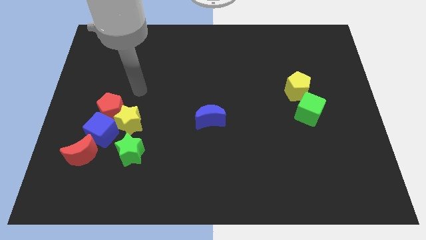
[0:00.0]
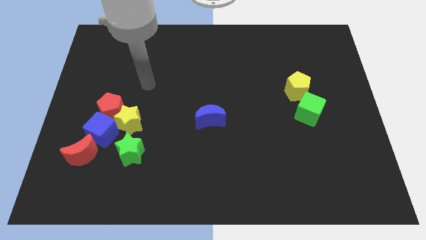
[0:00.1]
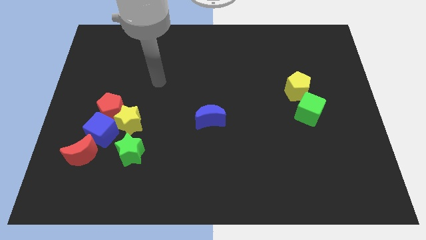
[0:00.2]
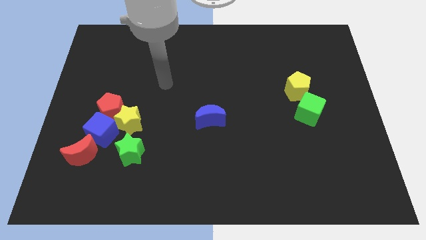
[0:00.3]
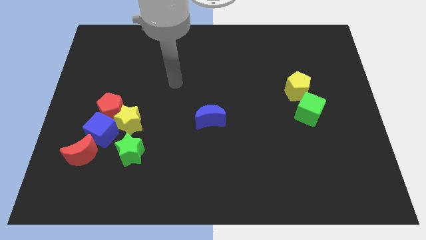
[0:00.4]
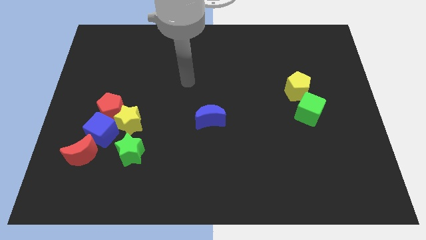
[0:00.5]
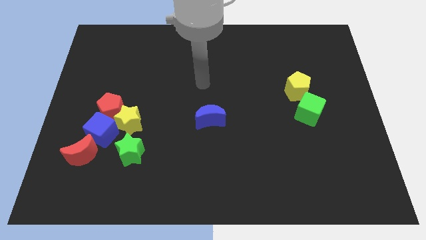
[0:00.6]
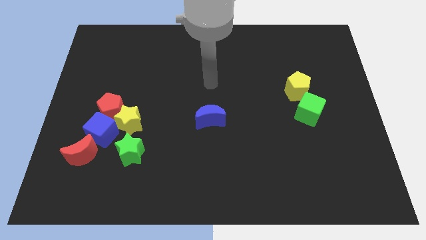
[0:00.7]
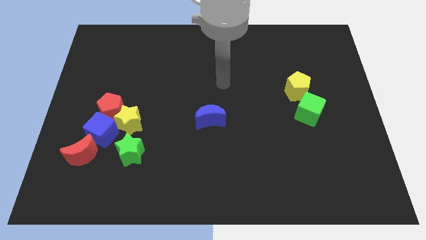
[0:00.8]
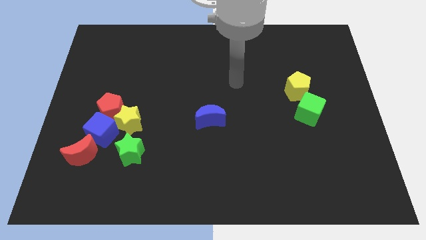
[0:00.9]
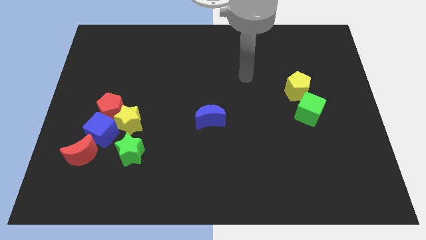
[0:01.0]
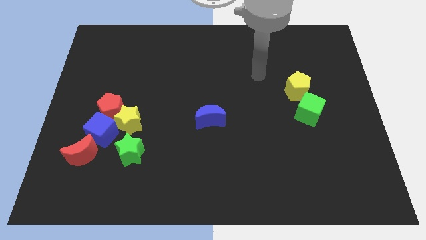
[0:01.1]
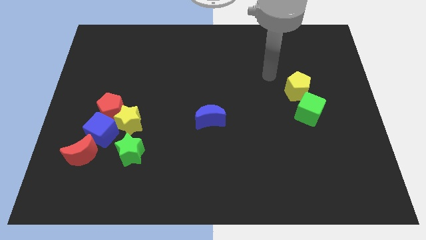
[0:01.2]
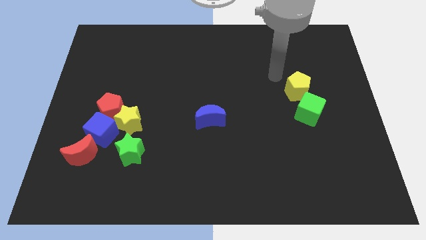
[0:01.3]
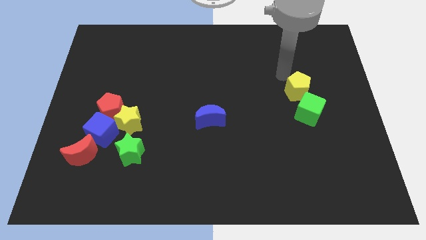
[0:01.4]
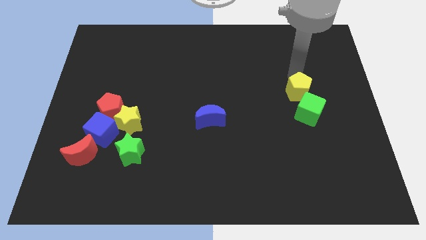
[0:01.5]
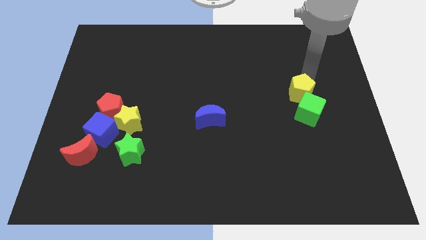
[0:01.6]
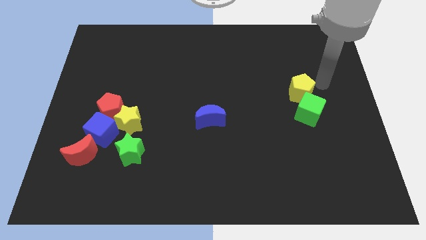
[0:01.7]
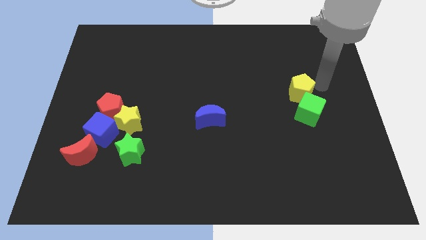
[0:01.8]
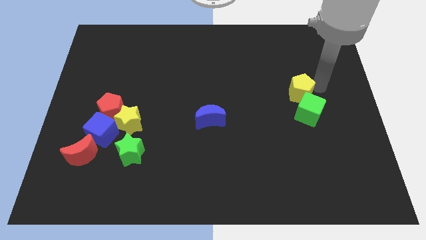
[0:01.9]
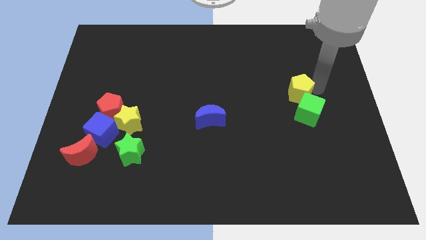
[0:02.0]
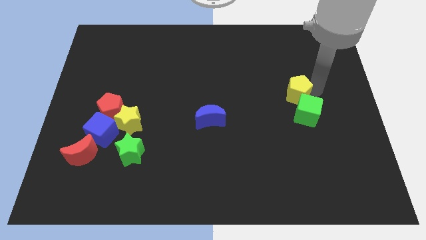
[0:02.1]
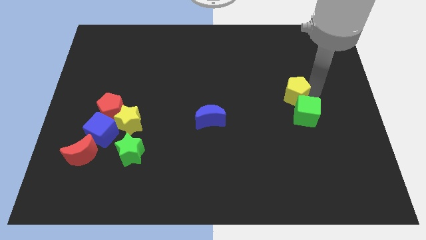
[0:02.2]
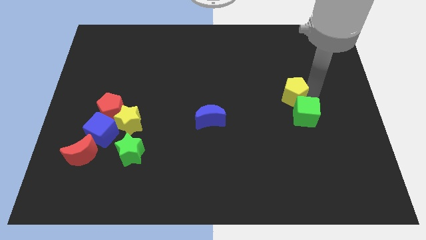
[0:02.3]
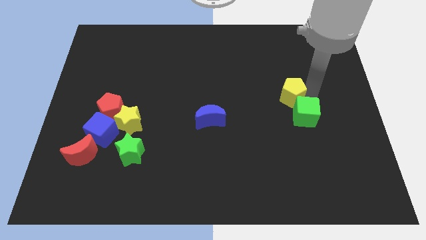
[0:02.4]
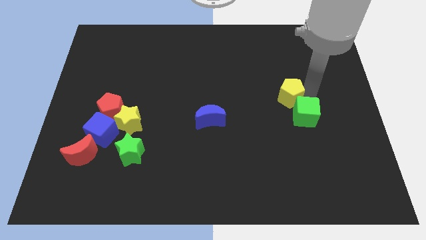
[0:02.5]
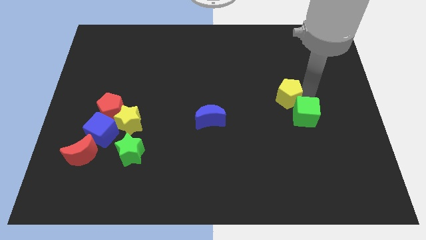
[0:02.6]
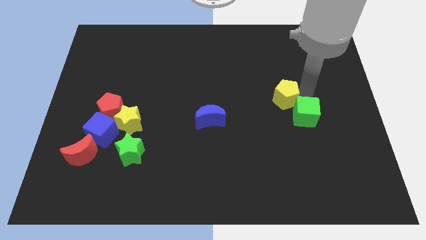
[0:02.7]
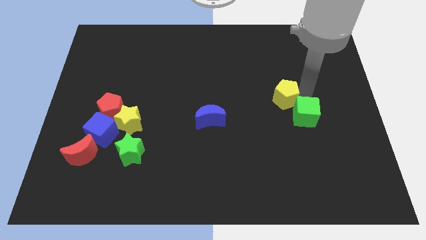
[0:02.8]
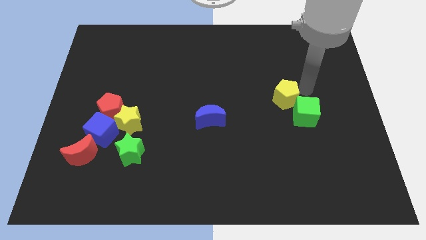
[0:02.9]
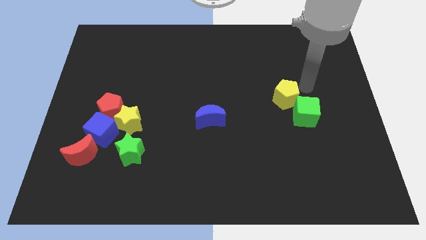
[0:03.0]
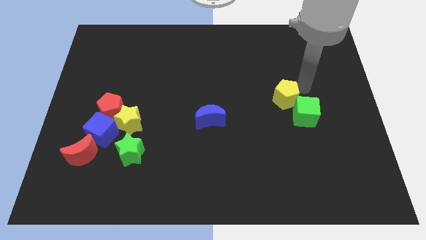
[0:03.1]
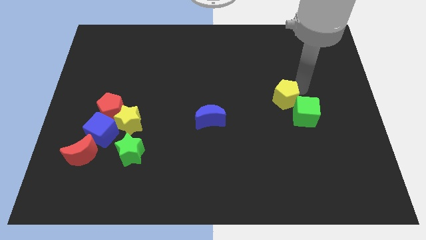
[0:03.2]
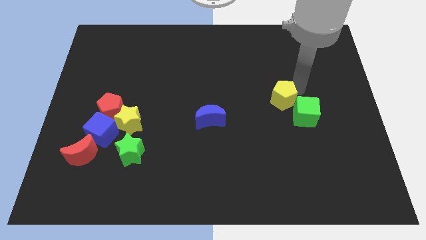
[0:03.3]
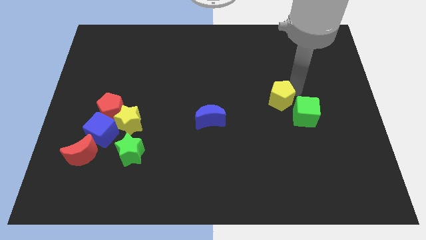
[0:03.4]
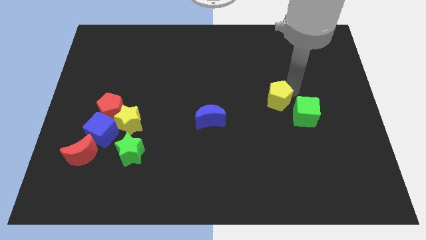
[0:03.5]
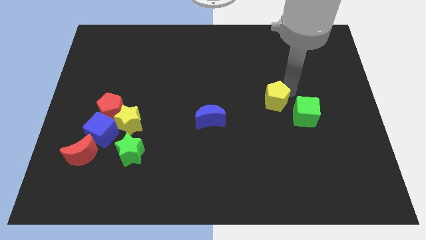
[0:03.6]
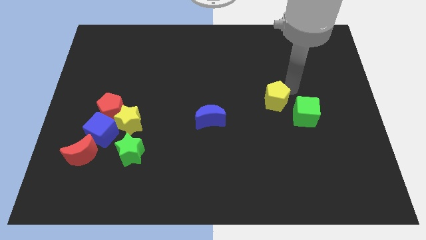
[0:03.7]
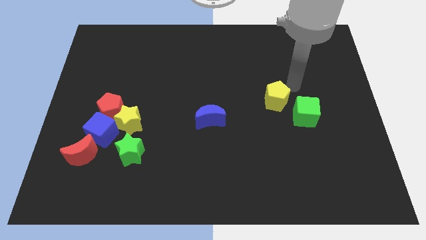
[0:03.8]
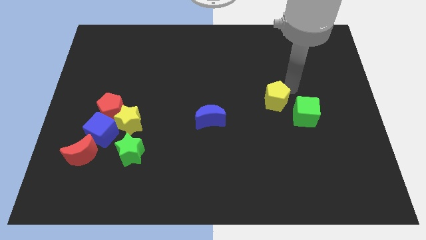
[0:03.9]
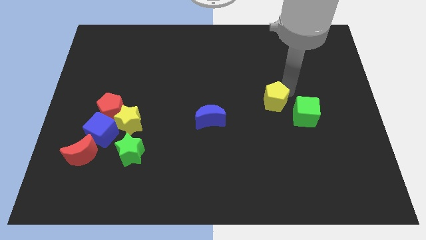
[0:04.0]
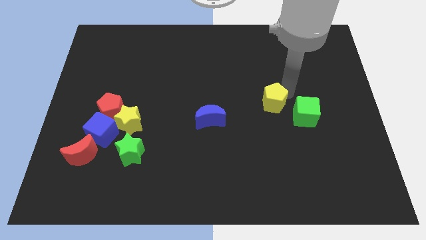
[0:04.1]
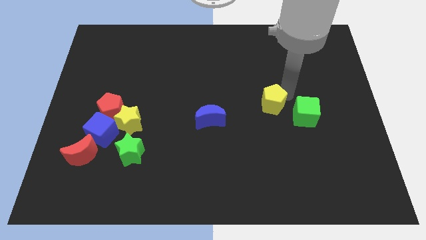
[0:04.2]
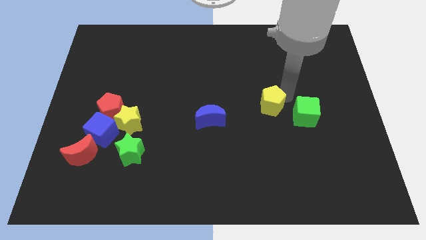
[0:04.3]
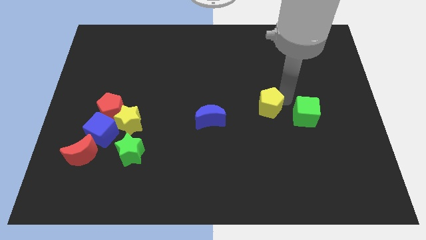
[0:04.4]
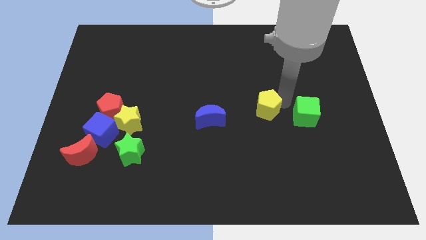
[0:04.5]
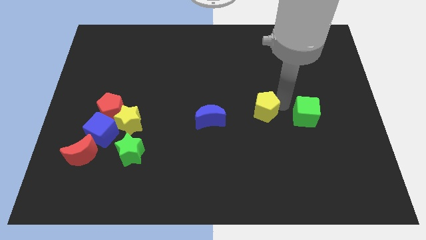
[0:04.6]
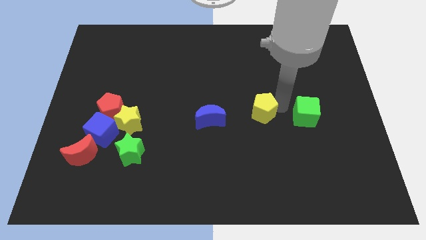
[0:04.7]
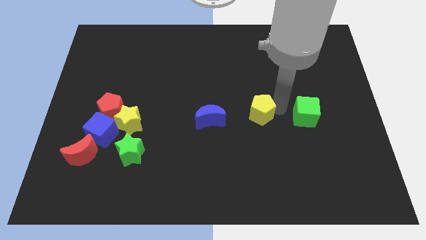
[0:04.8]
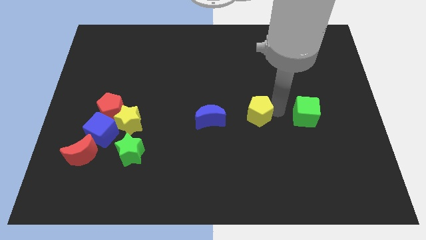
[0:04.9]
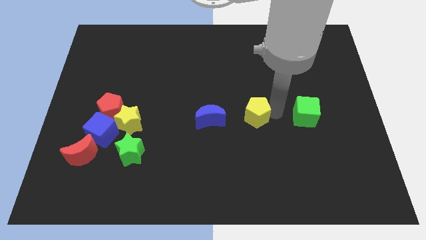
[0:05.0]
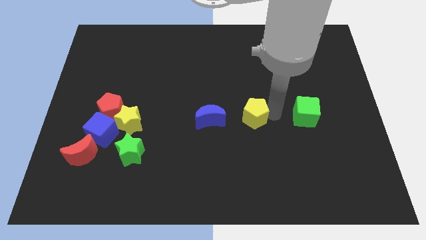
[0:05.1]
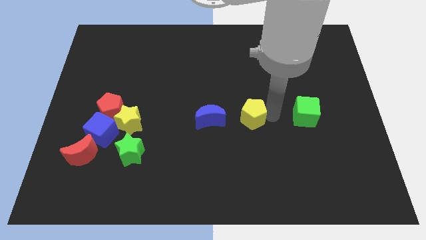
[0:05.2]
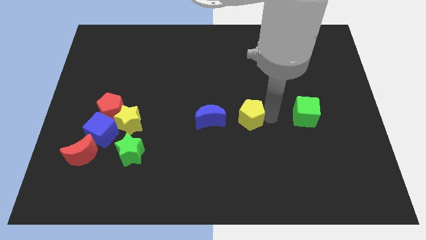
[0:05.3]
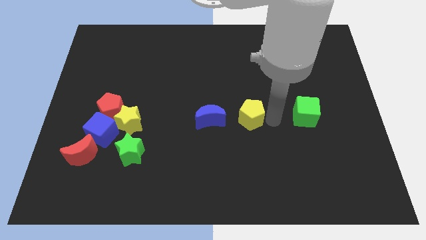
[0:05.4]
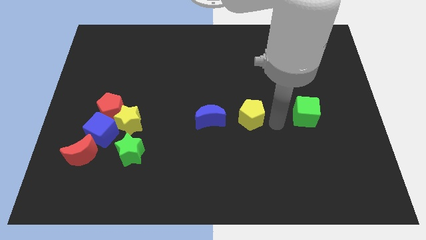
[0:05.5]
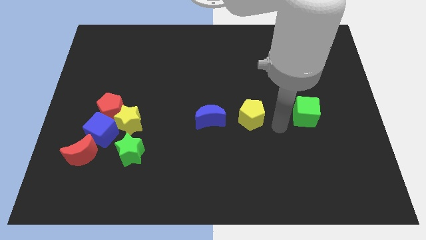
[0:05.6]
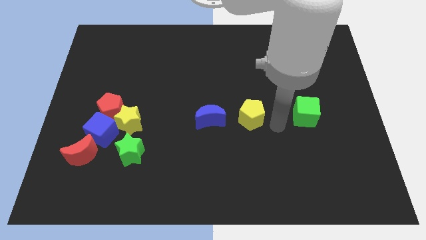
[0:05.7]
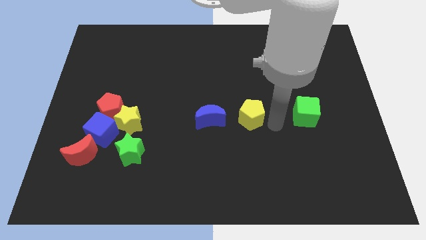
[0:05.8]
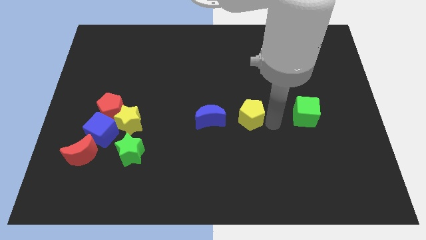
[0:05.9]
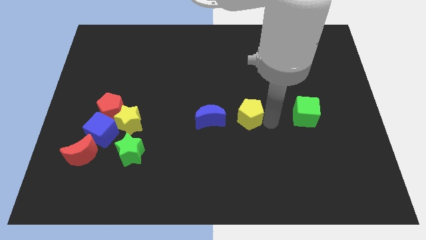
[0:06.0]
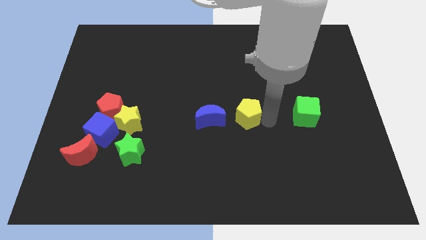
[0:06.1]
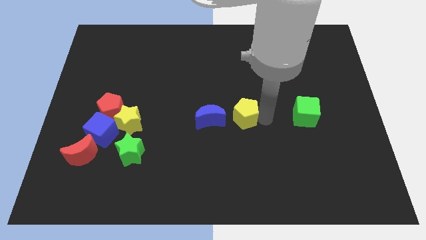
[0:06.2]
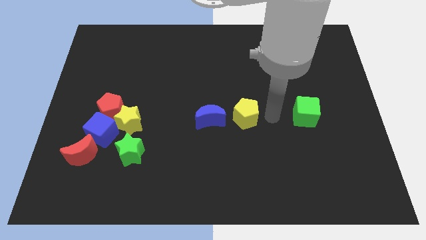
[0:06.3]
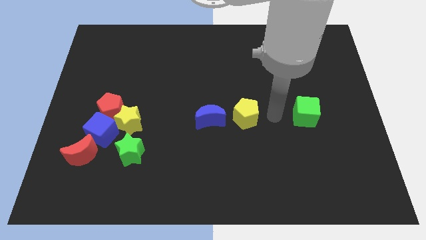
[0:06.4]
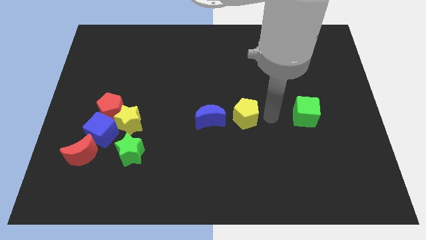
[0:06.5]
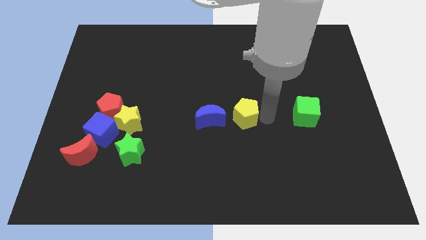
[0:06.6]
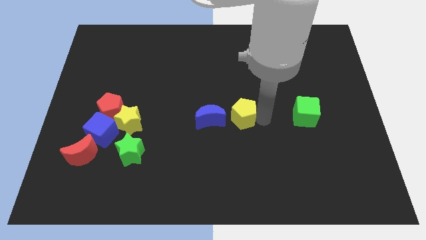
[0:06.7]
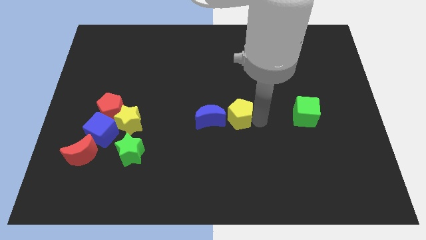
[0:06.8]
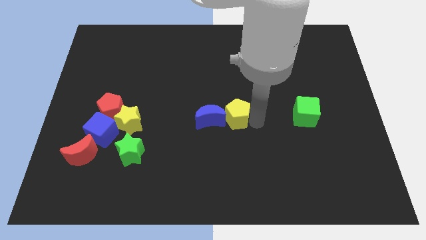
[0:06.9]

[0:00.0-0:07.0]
put the yellow pentagon close to the blue moon
